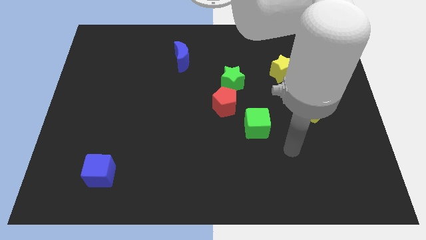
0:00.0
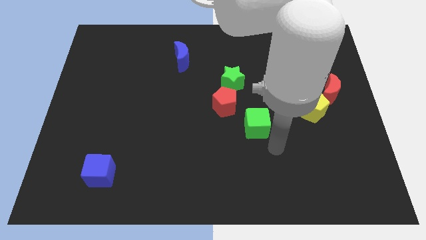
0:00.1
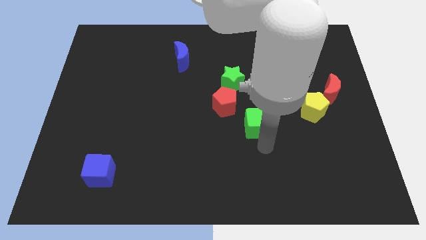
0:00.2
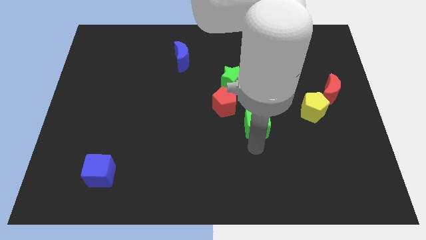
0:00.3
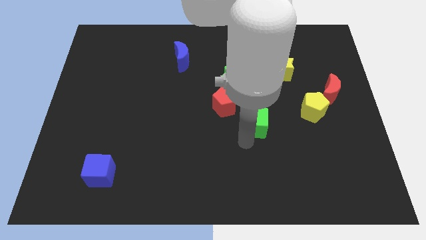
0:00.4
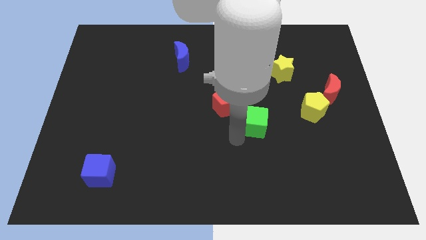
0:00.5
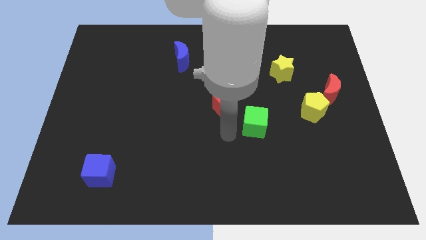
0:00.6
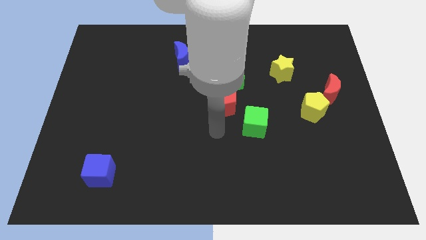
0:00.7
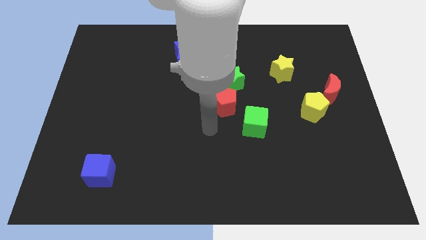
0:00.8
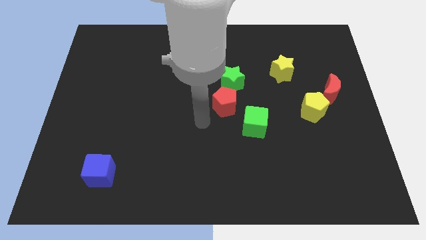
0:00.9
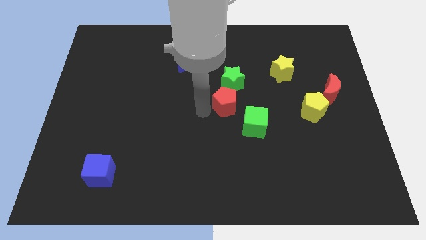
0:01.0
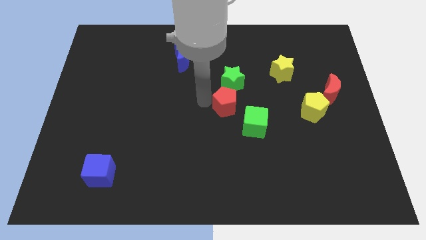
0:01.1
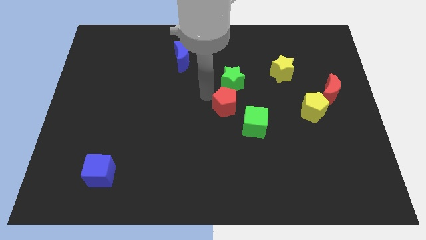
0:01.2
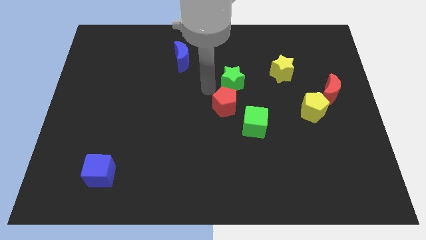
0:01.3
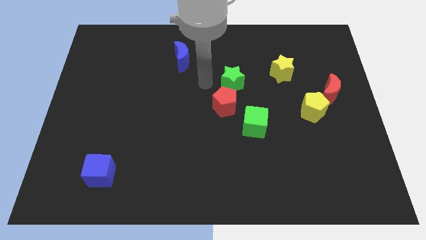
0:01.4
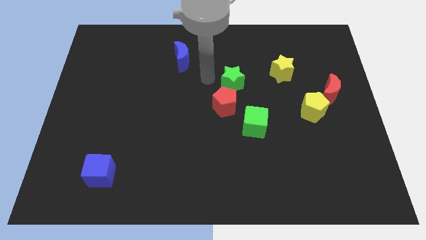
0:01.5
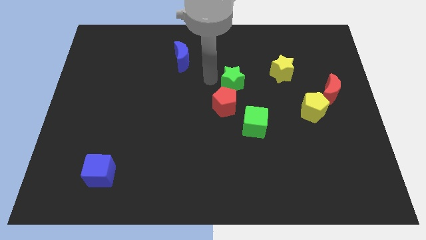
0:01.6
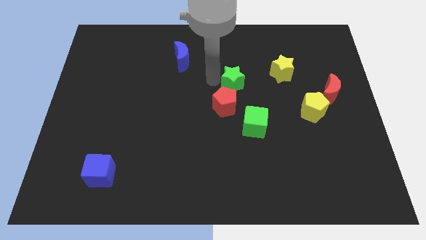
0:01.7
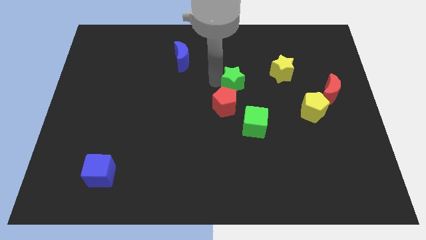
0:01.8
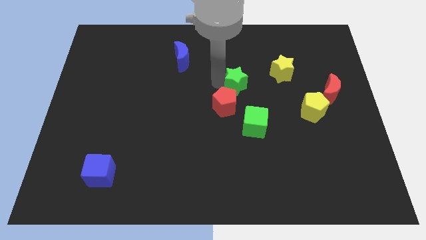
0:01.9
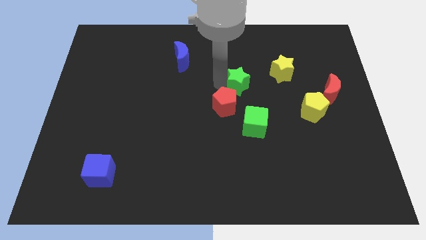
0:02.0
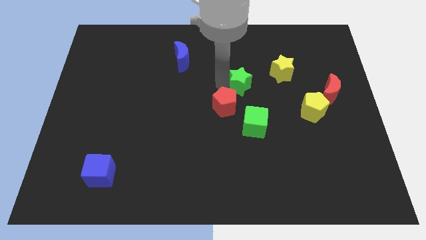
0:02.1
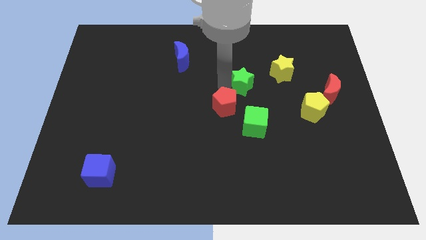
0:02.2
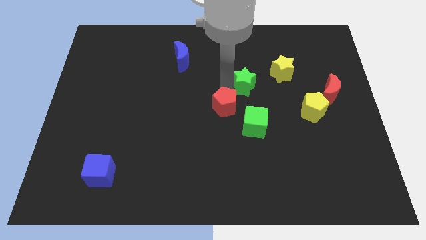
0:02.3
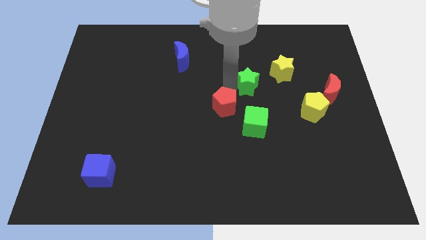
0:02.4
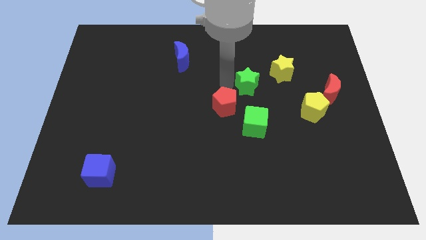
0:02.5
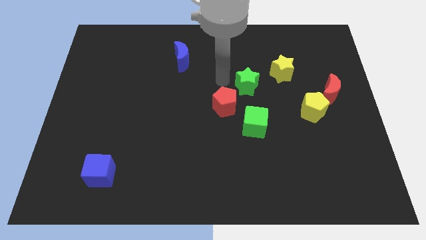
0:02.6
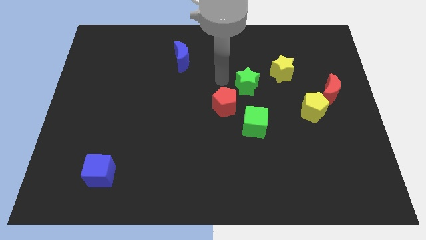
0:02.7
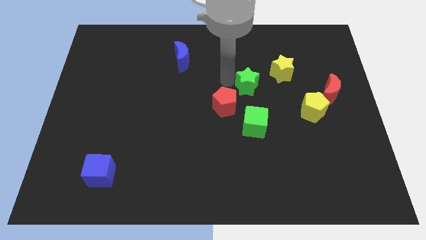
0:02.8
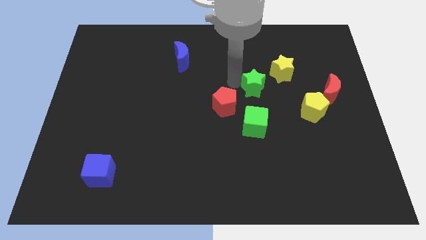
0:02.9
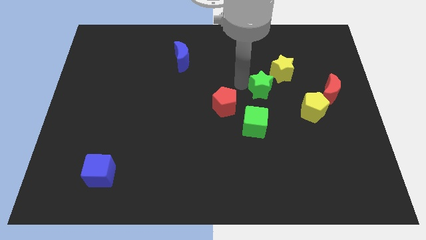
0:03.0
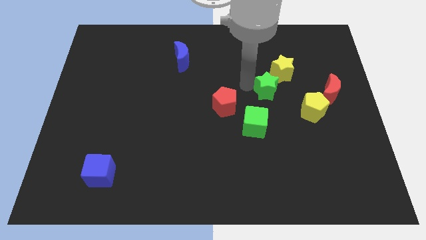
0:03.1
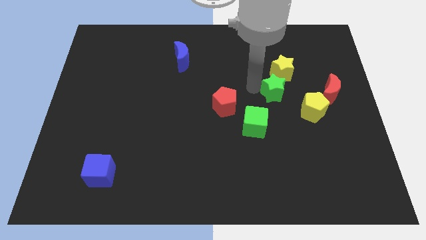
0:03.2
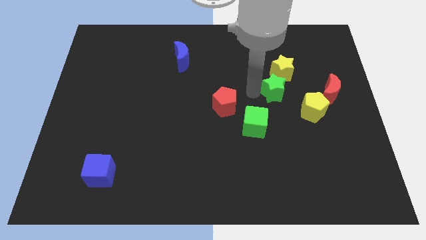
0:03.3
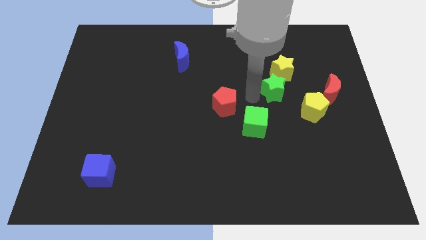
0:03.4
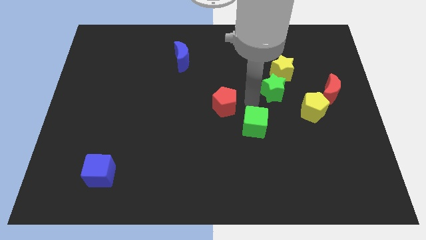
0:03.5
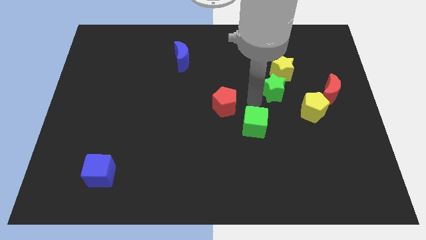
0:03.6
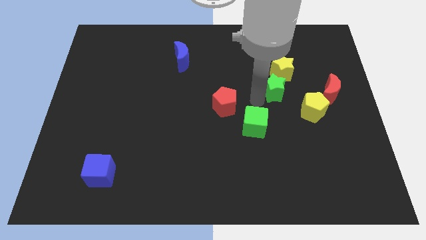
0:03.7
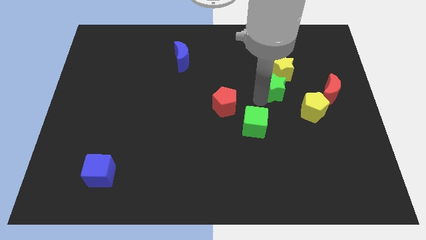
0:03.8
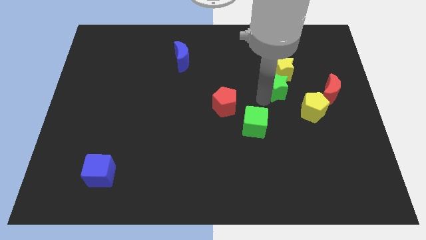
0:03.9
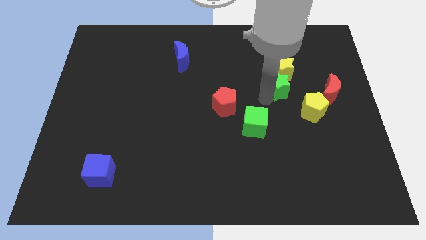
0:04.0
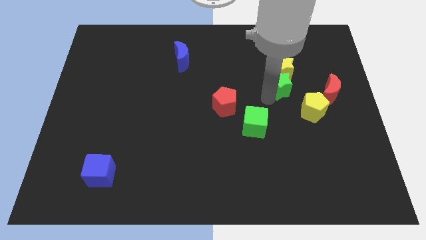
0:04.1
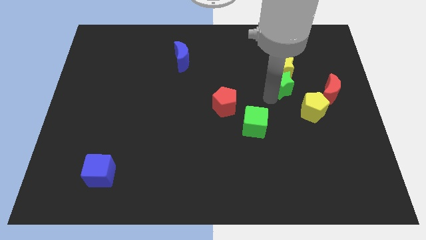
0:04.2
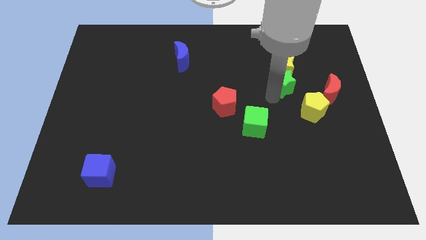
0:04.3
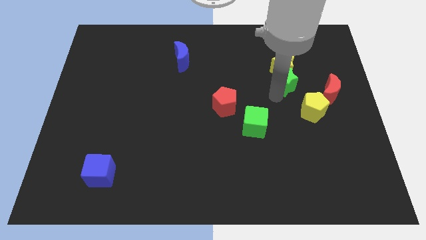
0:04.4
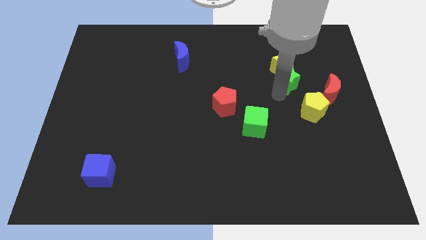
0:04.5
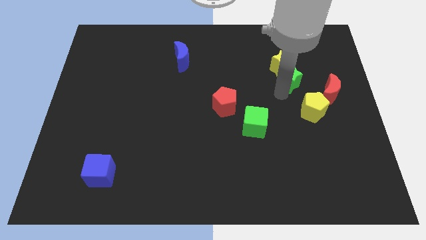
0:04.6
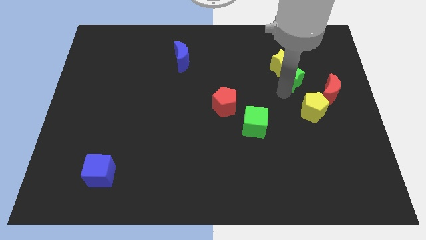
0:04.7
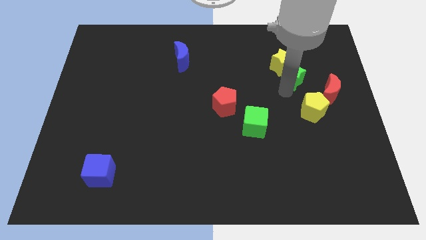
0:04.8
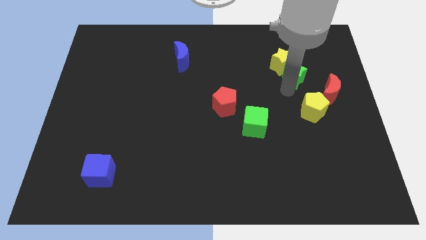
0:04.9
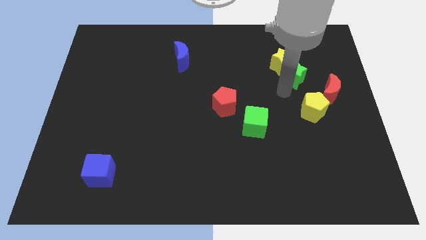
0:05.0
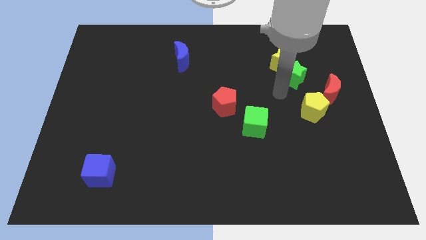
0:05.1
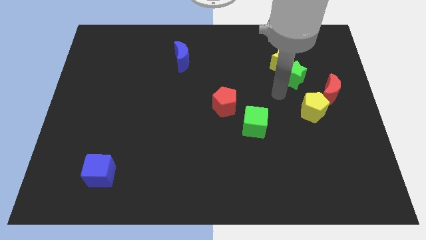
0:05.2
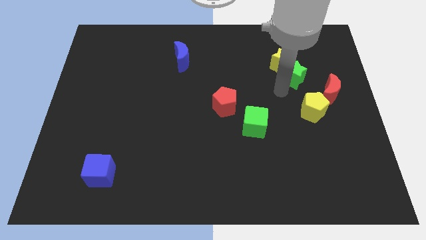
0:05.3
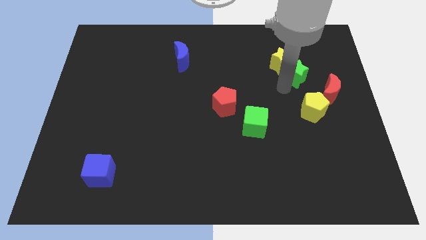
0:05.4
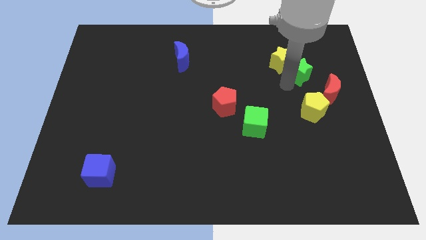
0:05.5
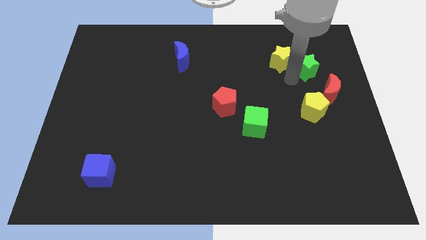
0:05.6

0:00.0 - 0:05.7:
move the green star above the red moon

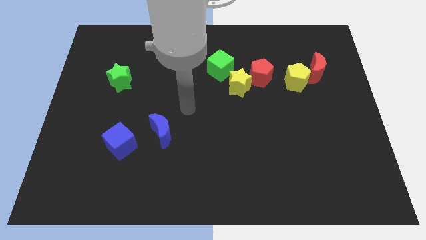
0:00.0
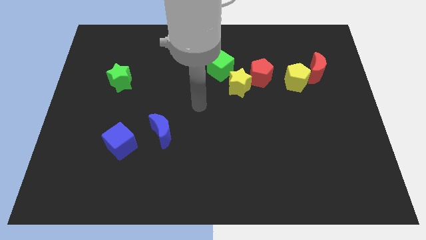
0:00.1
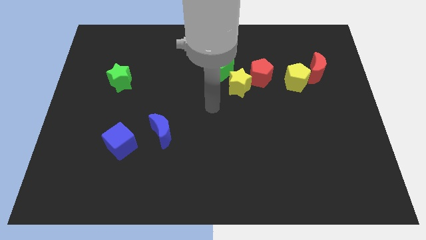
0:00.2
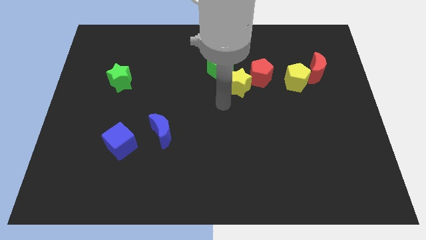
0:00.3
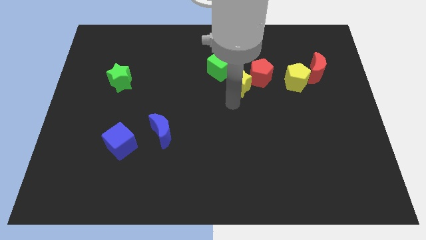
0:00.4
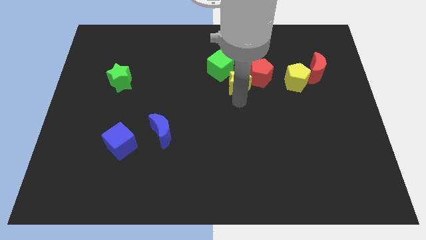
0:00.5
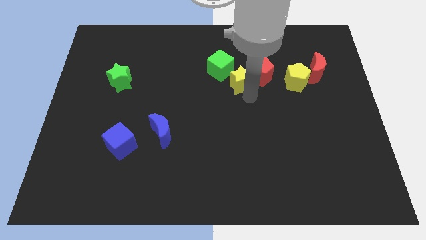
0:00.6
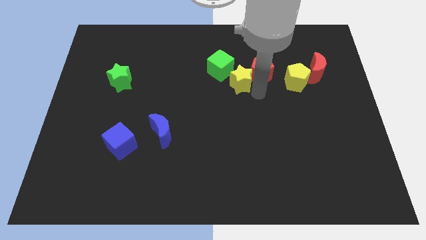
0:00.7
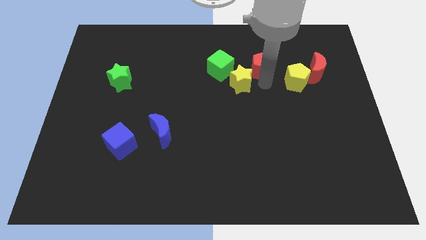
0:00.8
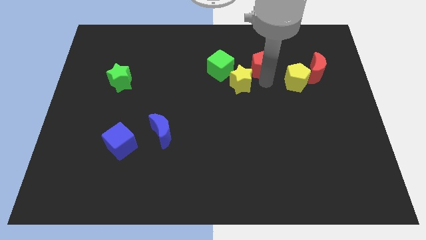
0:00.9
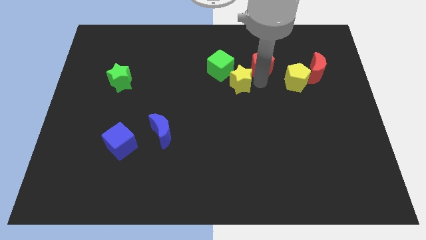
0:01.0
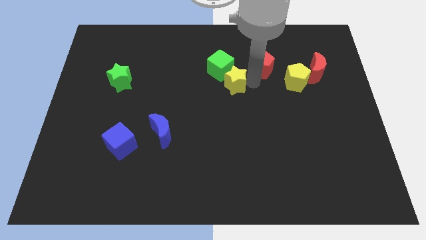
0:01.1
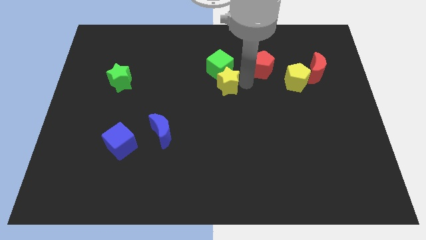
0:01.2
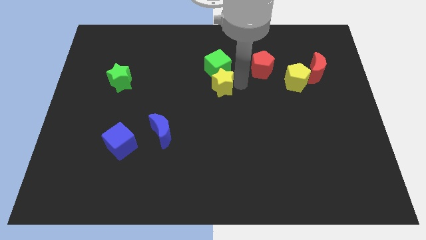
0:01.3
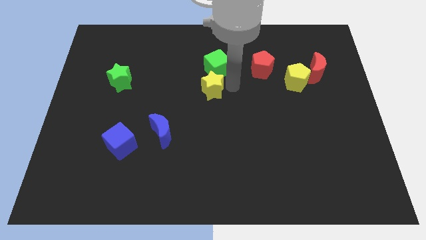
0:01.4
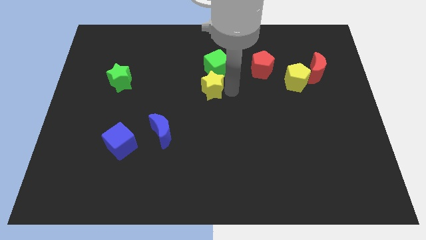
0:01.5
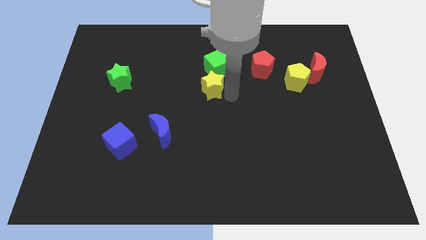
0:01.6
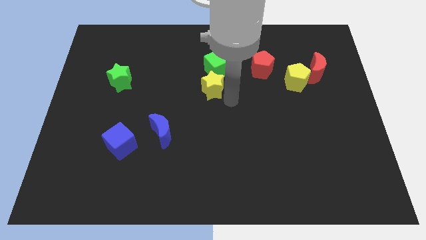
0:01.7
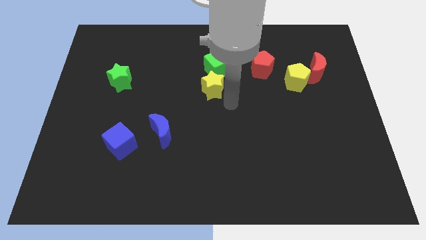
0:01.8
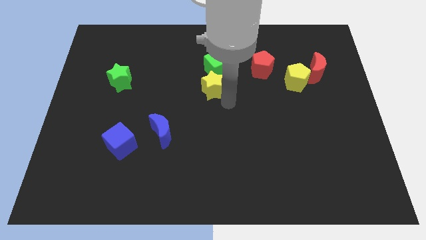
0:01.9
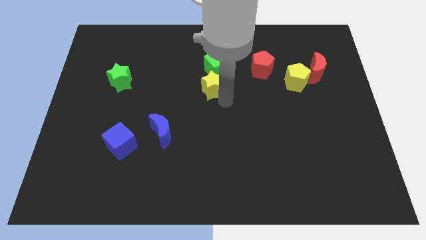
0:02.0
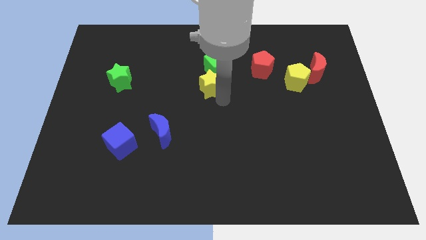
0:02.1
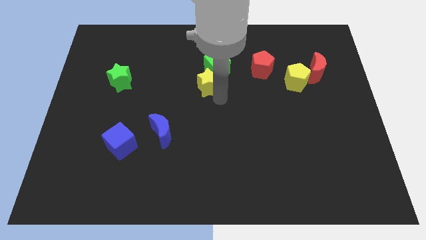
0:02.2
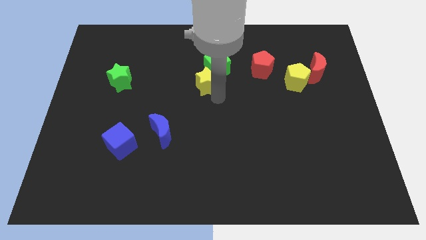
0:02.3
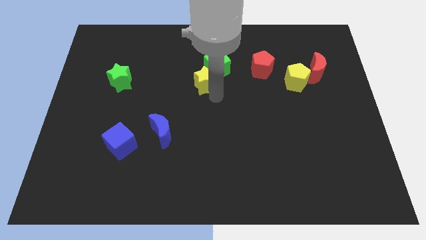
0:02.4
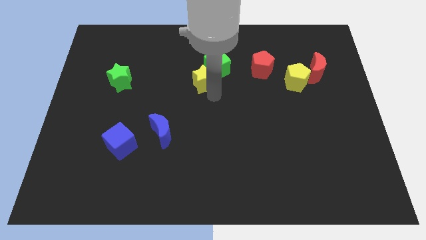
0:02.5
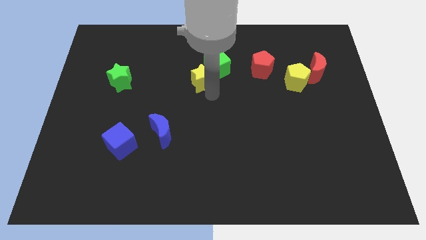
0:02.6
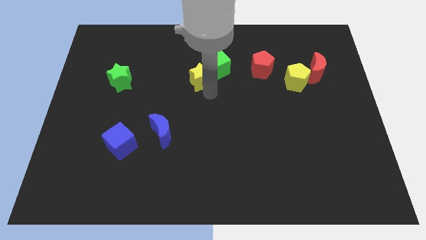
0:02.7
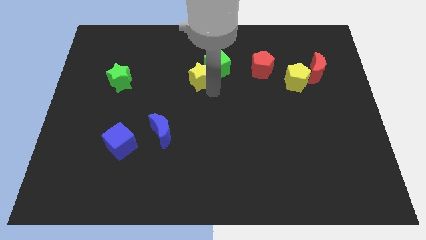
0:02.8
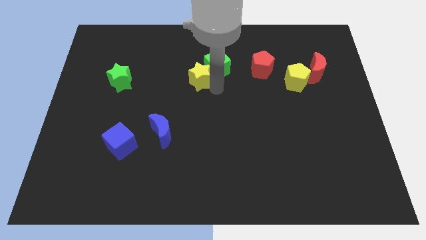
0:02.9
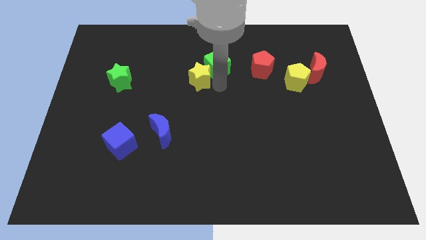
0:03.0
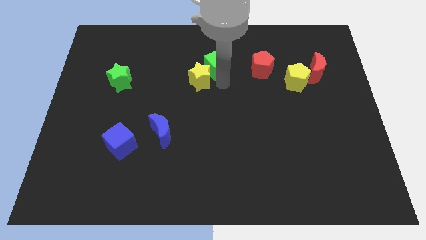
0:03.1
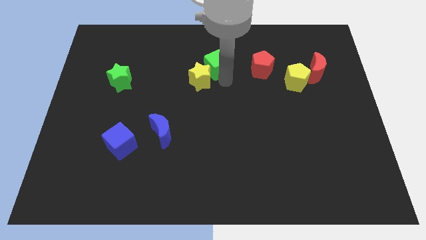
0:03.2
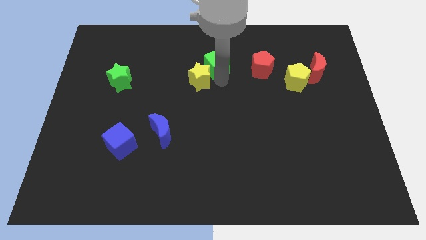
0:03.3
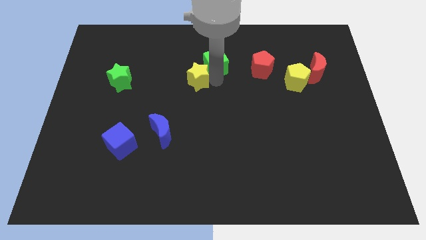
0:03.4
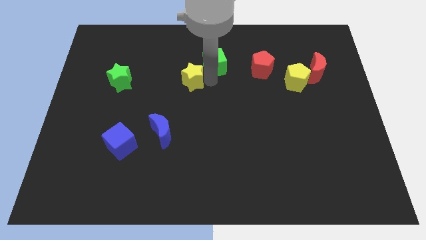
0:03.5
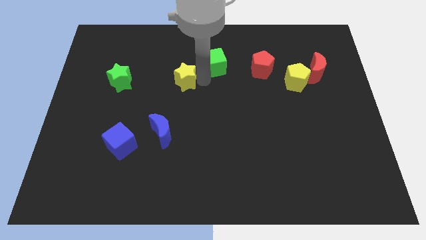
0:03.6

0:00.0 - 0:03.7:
put the yellow star to the right side of the green star
